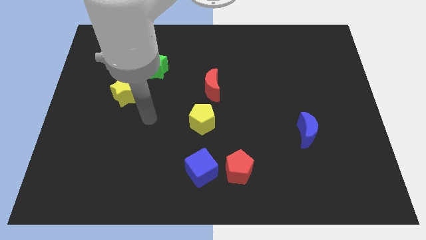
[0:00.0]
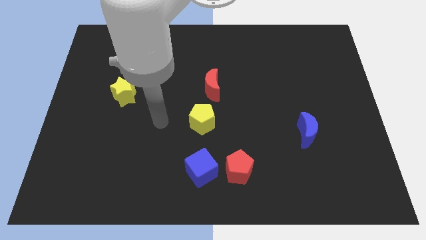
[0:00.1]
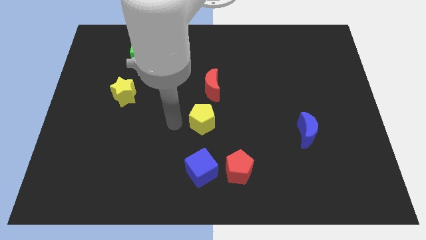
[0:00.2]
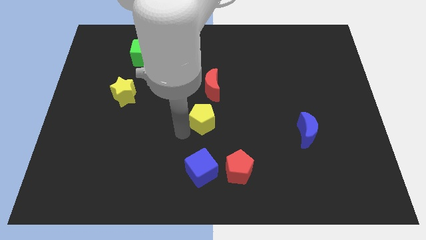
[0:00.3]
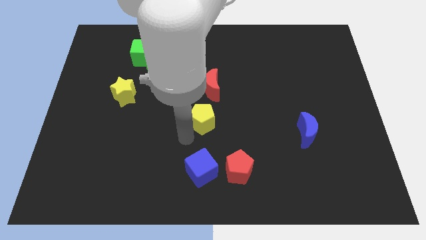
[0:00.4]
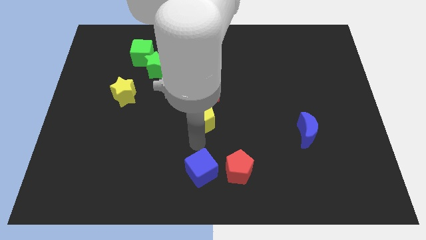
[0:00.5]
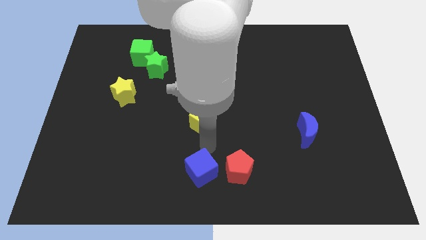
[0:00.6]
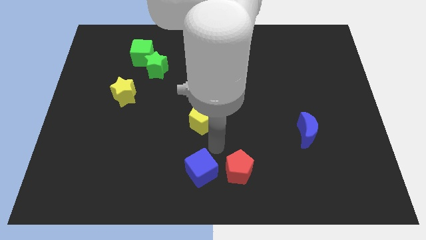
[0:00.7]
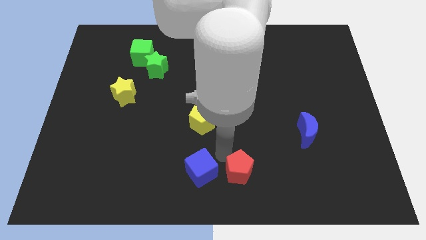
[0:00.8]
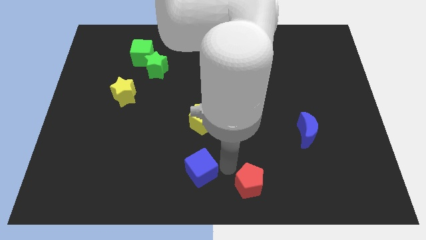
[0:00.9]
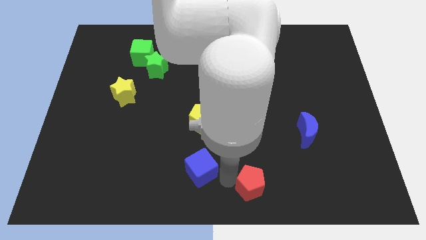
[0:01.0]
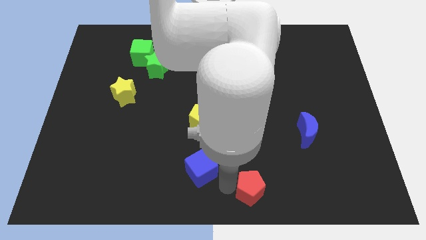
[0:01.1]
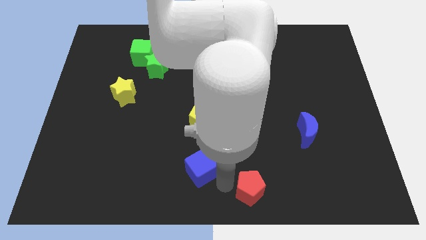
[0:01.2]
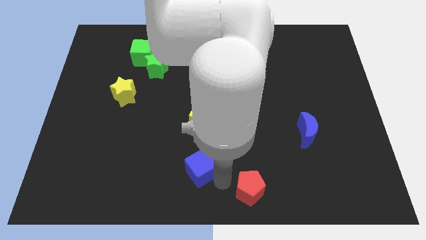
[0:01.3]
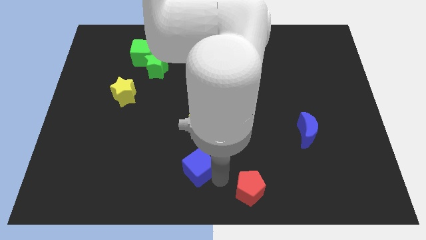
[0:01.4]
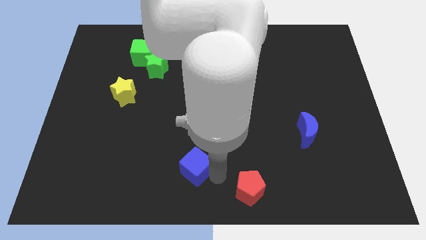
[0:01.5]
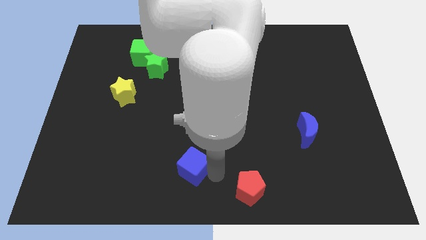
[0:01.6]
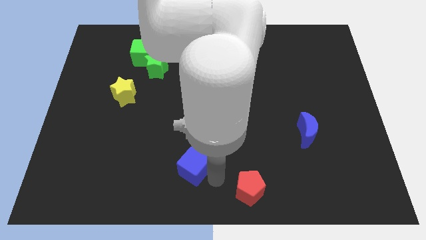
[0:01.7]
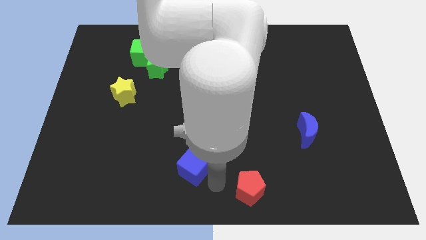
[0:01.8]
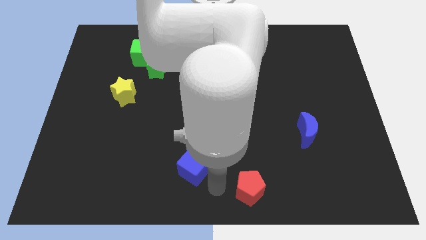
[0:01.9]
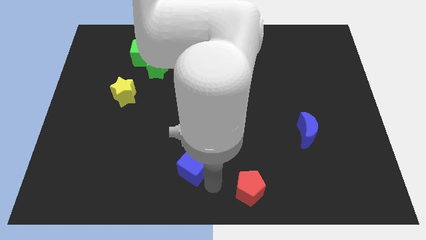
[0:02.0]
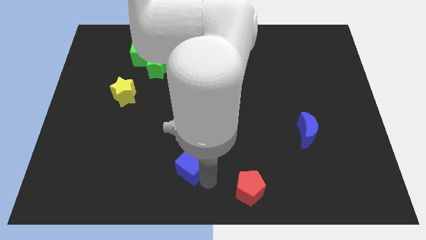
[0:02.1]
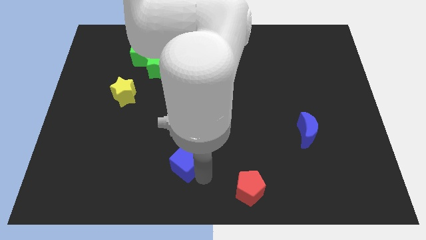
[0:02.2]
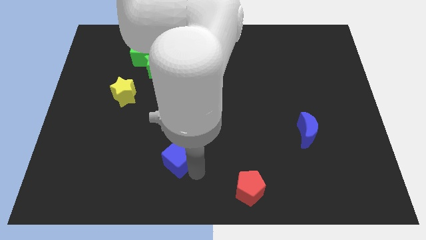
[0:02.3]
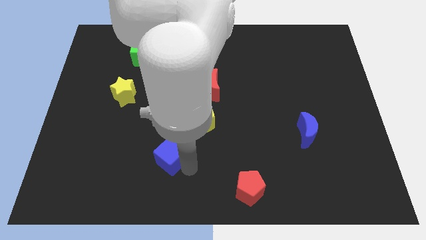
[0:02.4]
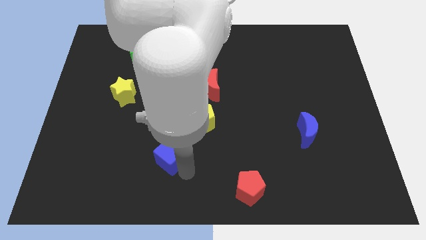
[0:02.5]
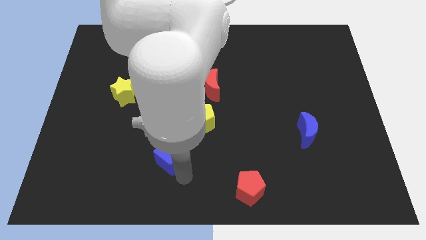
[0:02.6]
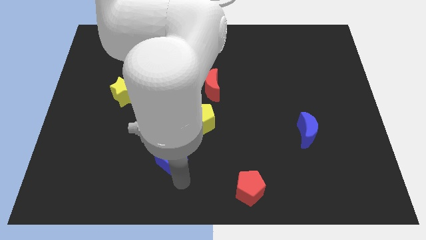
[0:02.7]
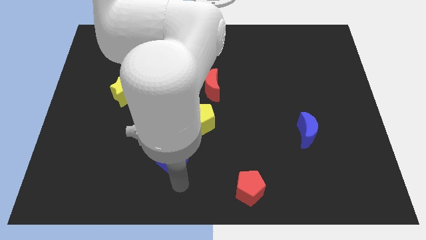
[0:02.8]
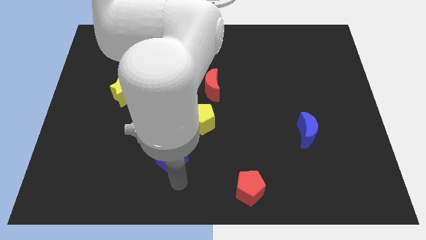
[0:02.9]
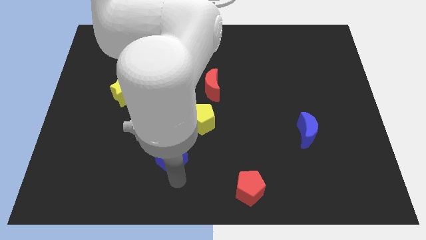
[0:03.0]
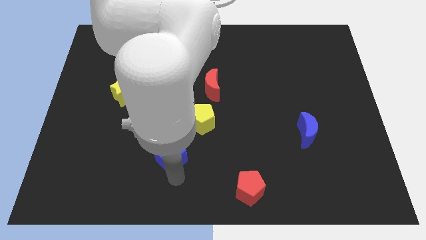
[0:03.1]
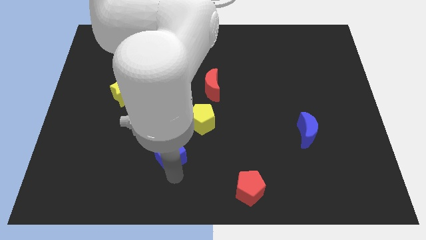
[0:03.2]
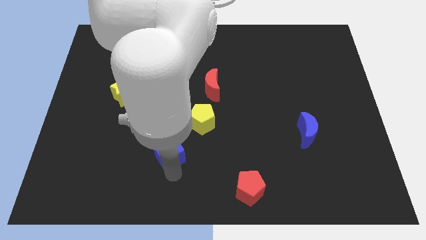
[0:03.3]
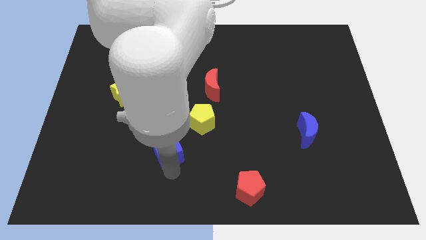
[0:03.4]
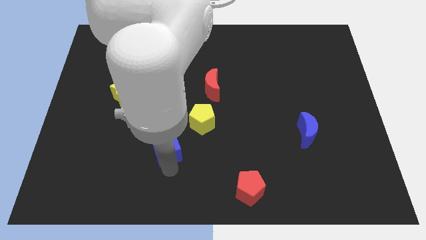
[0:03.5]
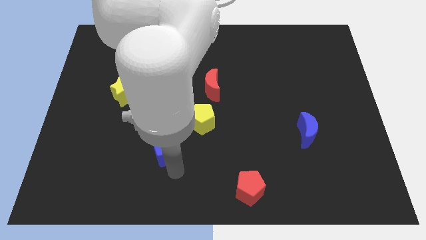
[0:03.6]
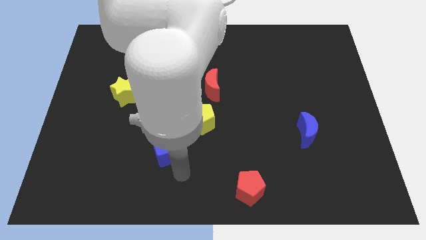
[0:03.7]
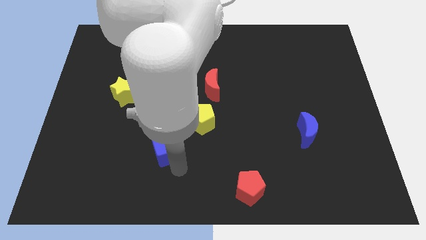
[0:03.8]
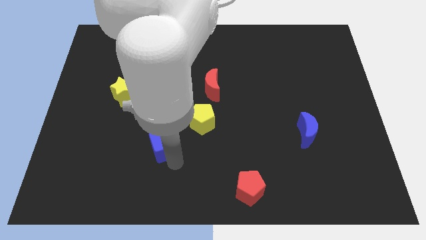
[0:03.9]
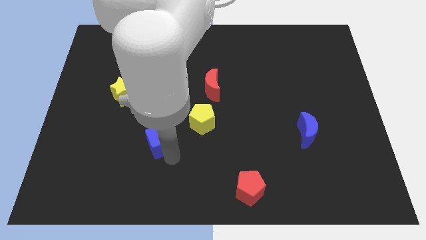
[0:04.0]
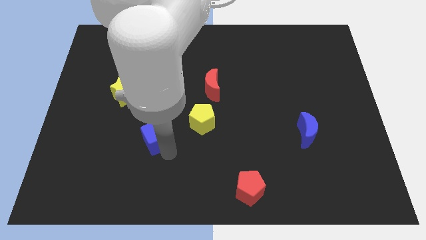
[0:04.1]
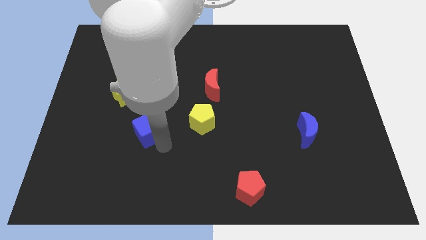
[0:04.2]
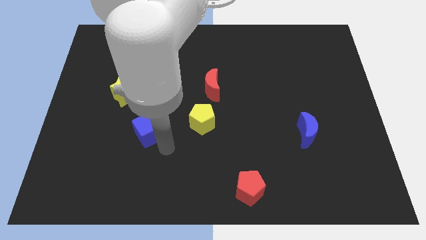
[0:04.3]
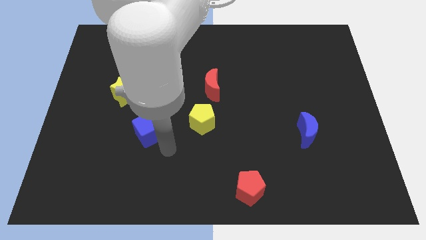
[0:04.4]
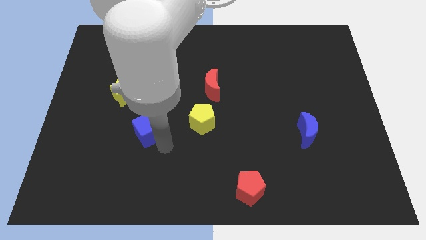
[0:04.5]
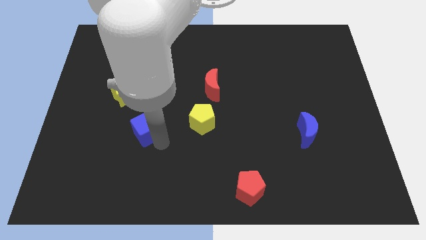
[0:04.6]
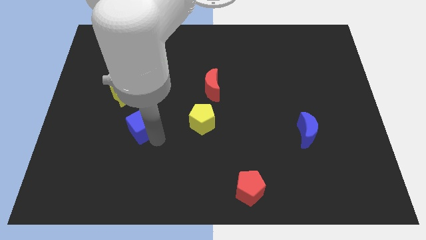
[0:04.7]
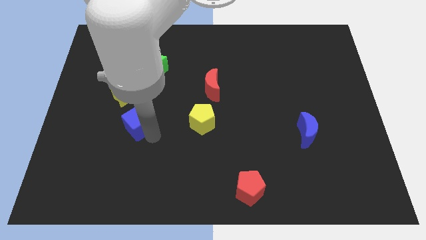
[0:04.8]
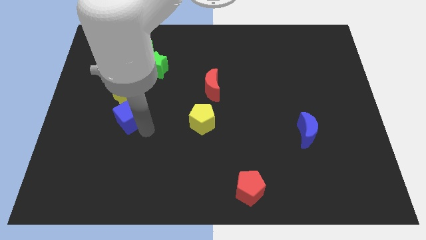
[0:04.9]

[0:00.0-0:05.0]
move the blue cube upwards and to the left diagonally

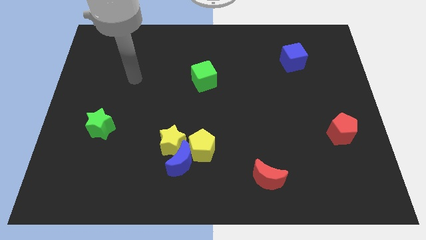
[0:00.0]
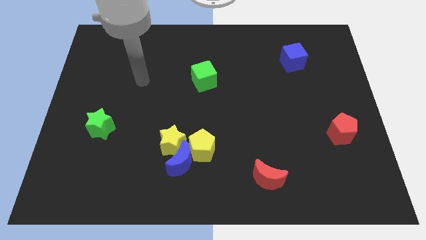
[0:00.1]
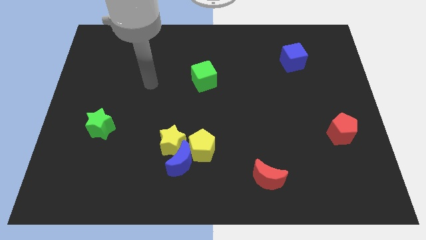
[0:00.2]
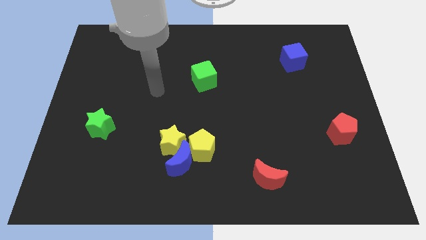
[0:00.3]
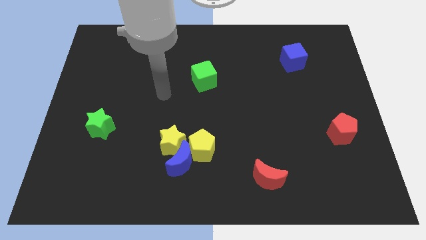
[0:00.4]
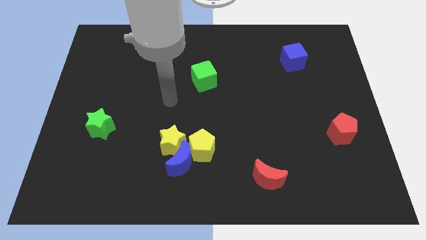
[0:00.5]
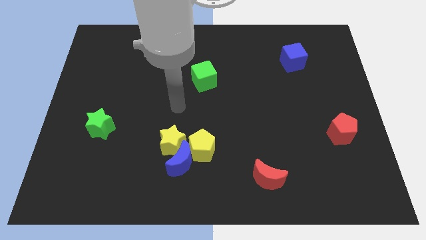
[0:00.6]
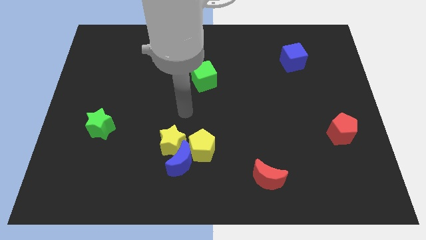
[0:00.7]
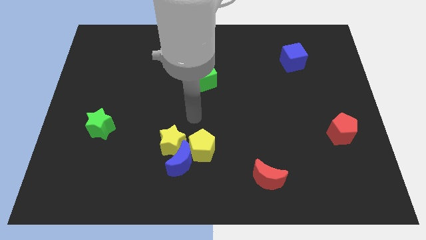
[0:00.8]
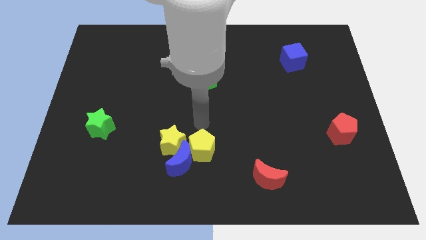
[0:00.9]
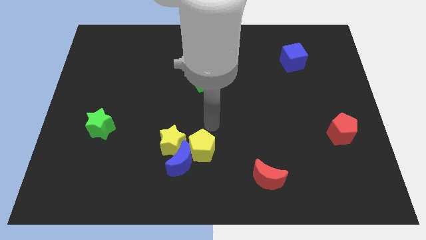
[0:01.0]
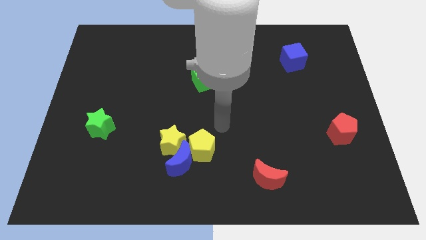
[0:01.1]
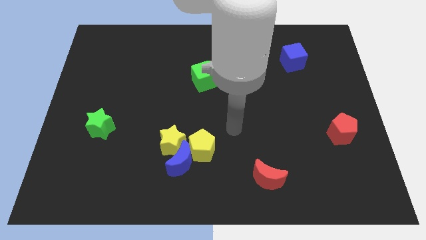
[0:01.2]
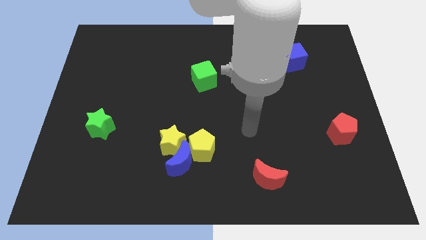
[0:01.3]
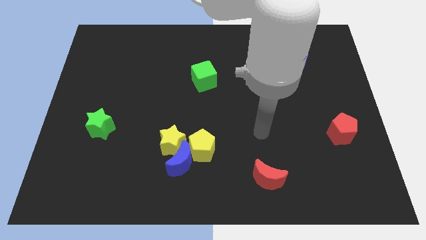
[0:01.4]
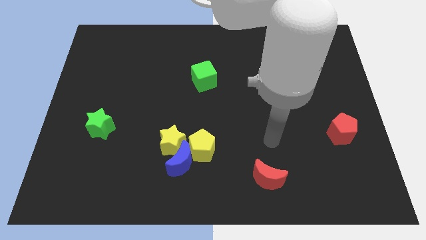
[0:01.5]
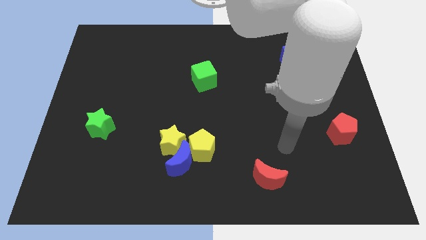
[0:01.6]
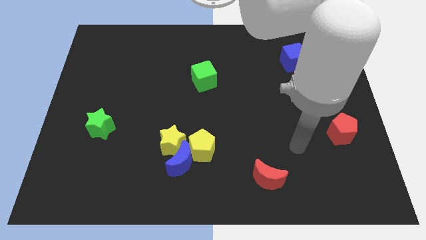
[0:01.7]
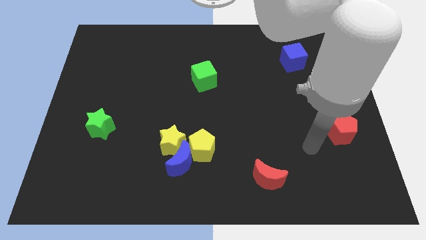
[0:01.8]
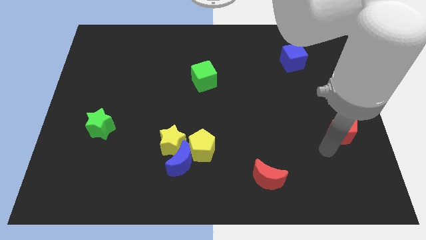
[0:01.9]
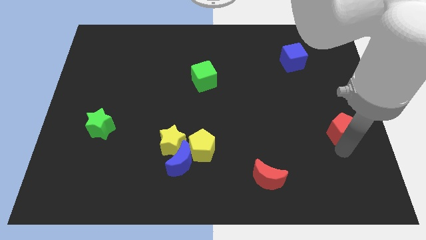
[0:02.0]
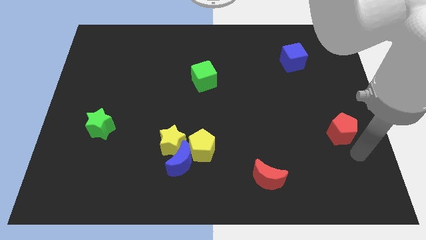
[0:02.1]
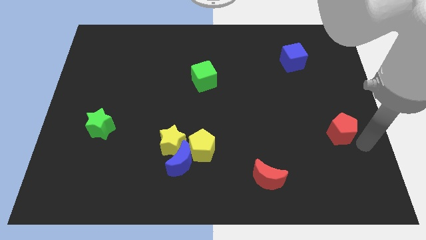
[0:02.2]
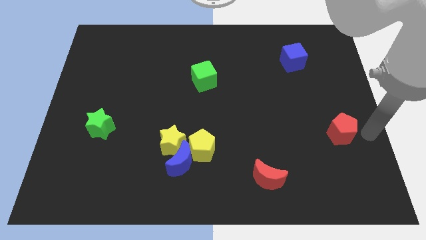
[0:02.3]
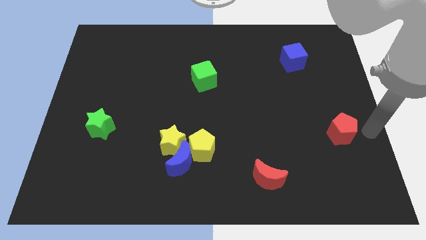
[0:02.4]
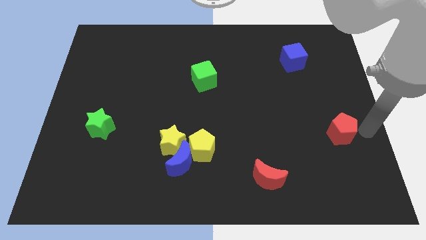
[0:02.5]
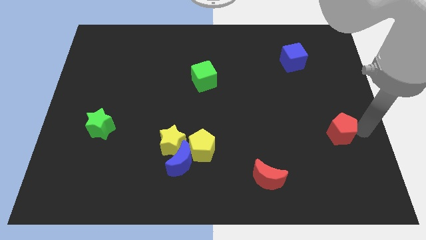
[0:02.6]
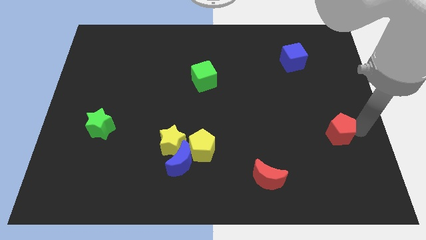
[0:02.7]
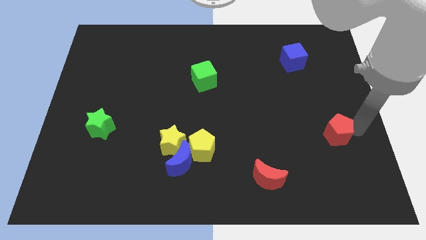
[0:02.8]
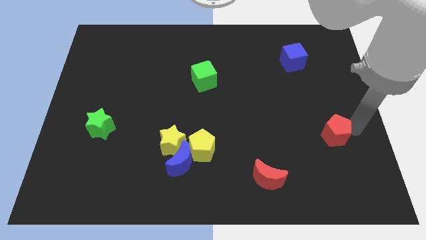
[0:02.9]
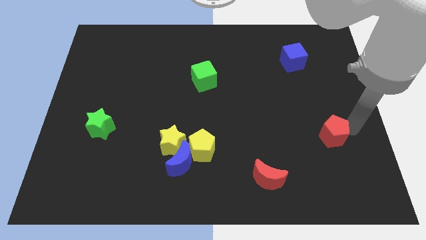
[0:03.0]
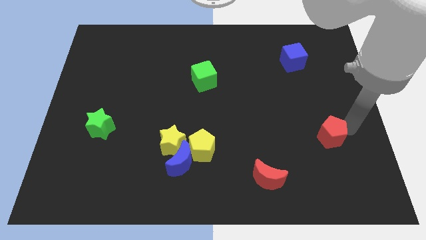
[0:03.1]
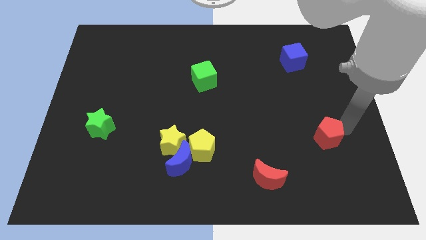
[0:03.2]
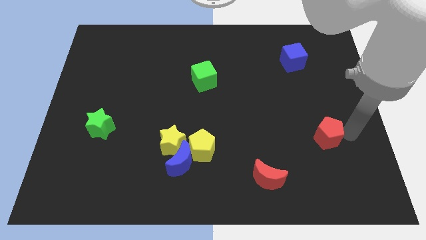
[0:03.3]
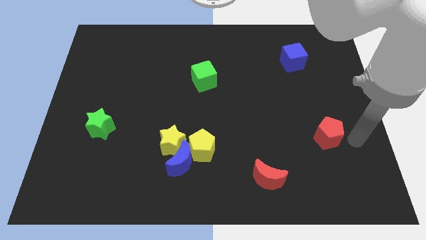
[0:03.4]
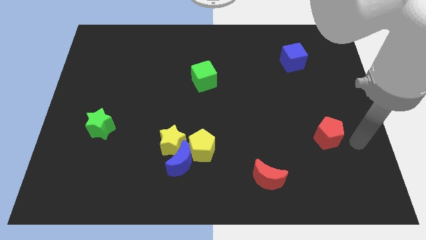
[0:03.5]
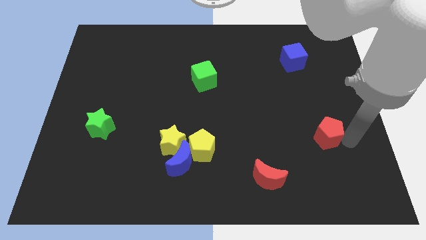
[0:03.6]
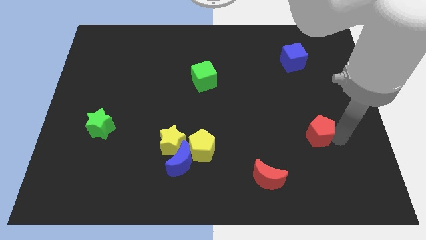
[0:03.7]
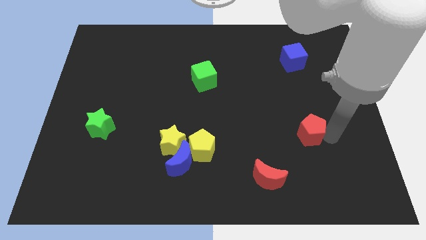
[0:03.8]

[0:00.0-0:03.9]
slide the red pentagon left a little
